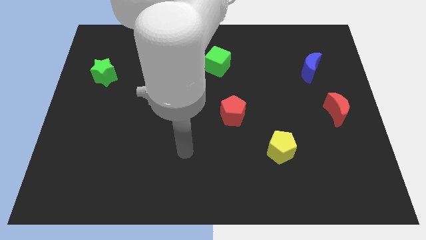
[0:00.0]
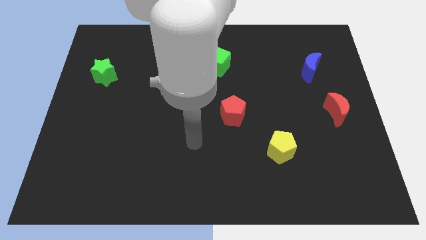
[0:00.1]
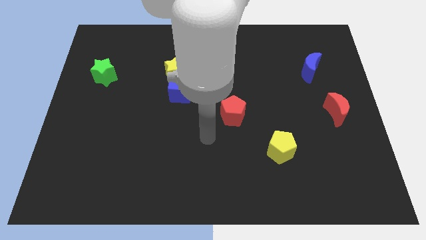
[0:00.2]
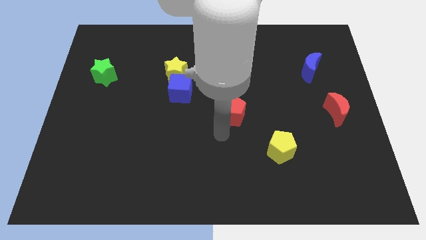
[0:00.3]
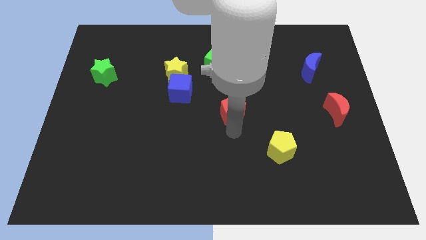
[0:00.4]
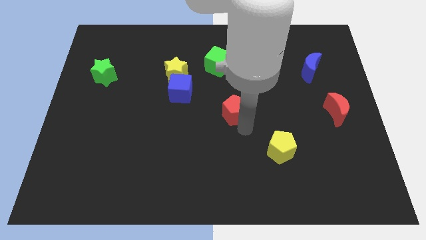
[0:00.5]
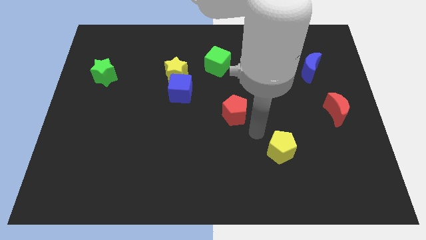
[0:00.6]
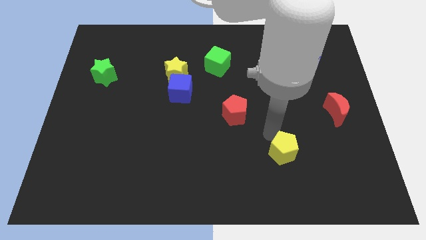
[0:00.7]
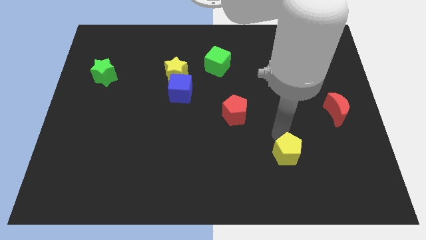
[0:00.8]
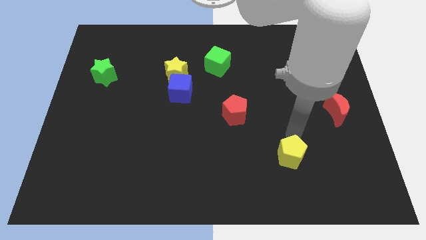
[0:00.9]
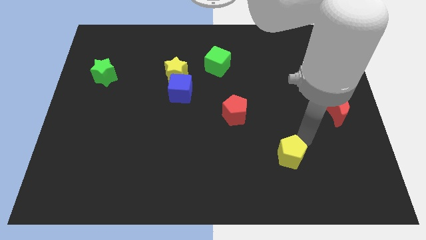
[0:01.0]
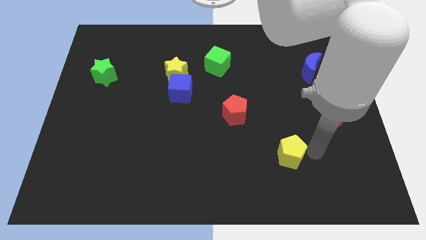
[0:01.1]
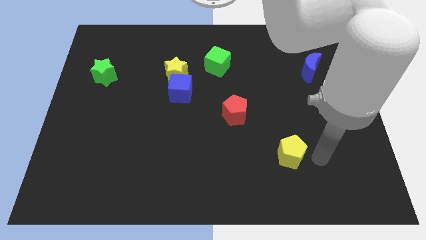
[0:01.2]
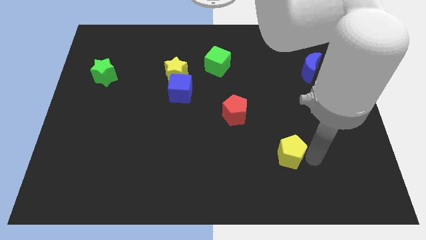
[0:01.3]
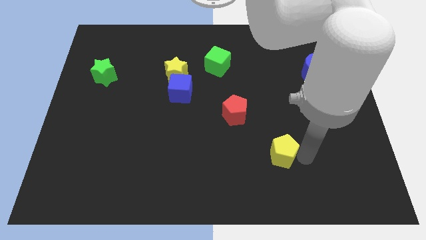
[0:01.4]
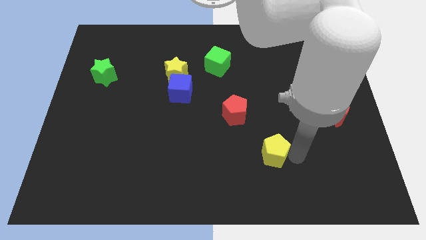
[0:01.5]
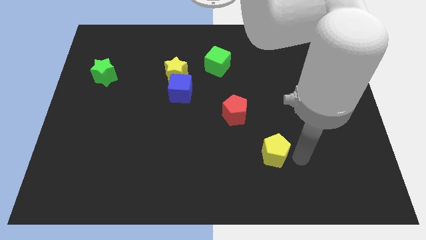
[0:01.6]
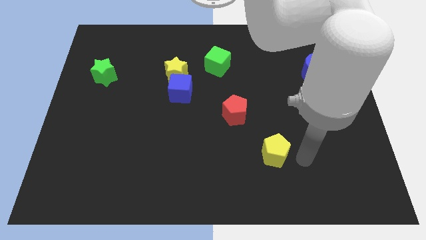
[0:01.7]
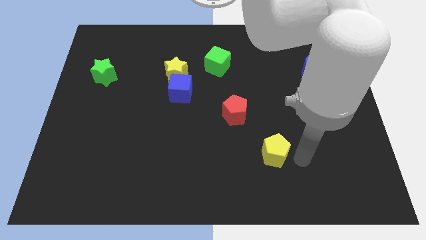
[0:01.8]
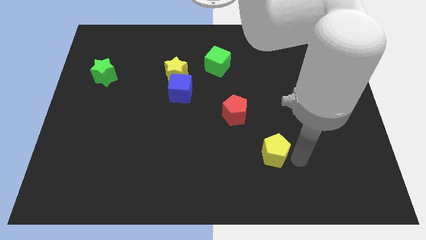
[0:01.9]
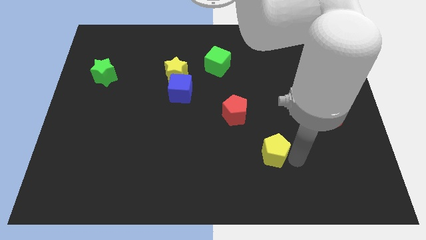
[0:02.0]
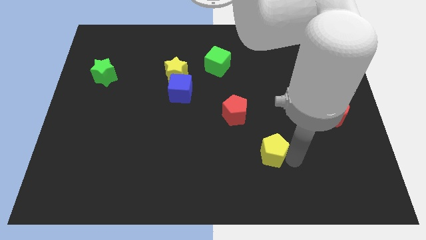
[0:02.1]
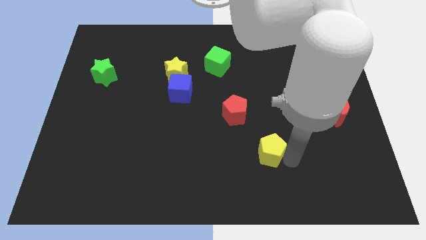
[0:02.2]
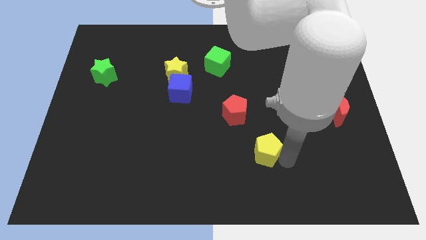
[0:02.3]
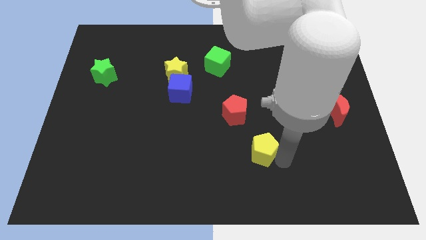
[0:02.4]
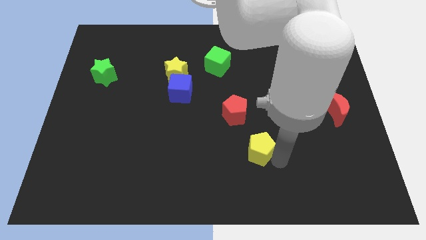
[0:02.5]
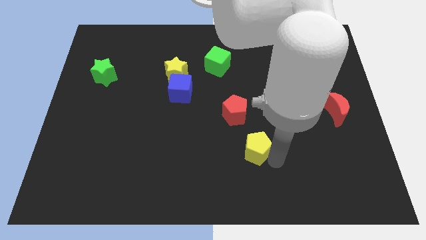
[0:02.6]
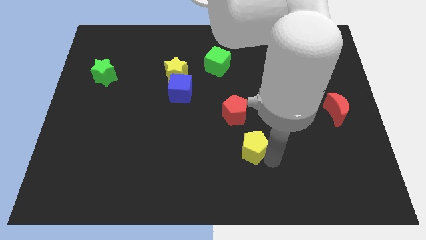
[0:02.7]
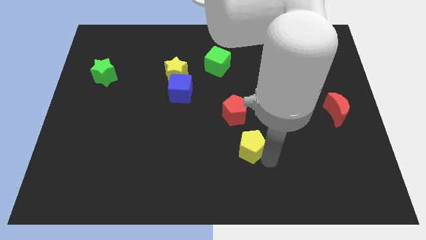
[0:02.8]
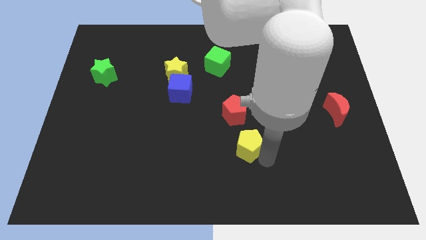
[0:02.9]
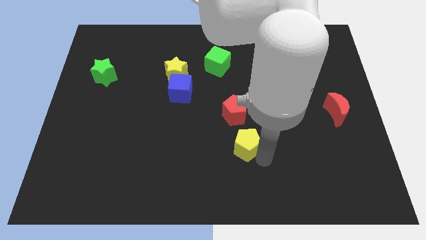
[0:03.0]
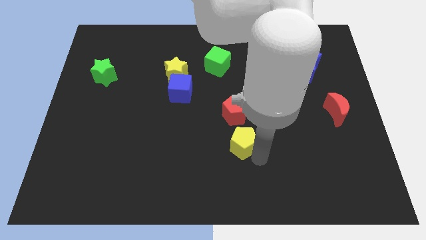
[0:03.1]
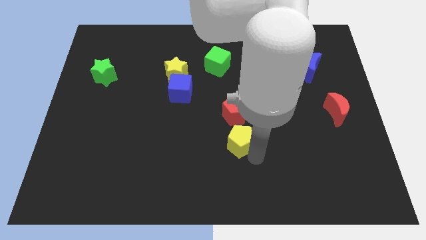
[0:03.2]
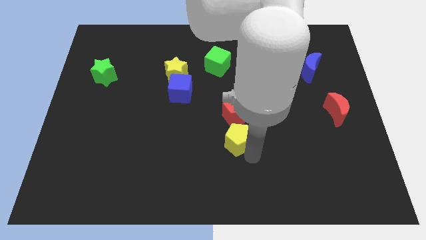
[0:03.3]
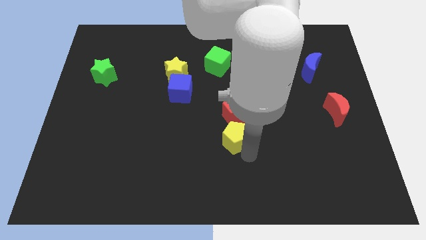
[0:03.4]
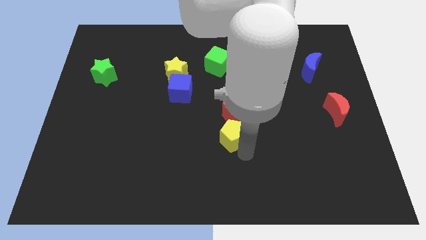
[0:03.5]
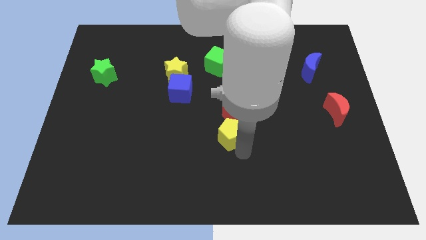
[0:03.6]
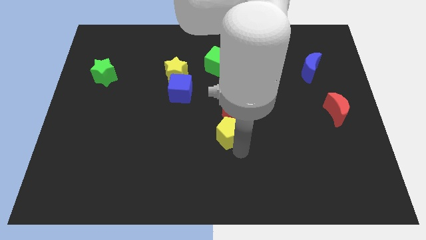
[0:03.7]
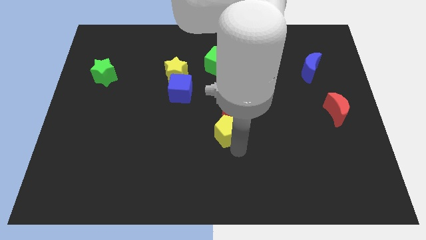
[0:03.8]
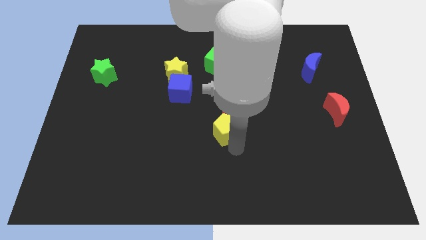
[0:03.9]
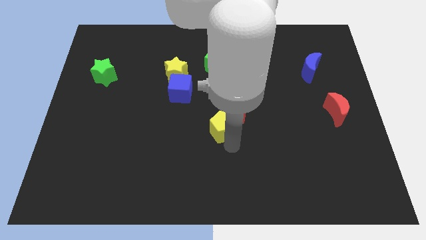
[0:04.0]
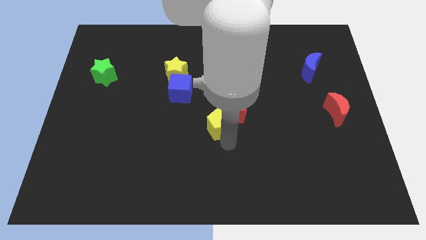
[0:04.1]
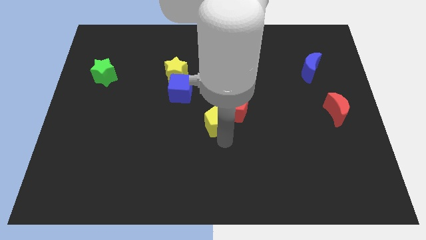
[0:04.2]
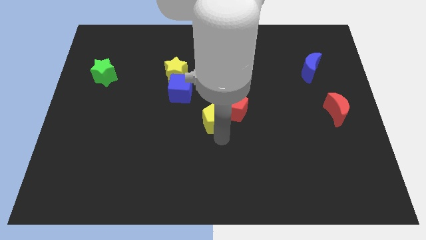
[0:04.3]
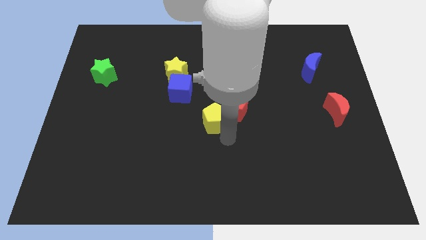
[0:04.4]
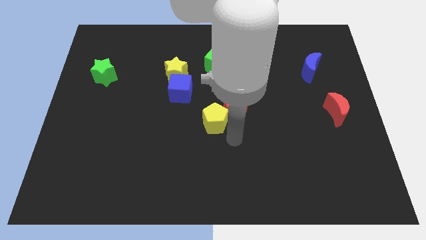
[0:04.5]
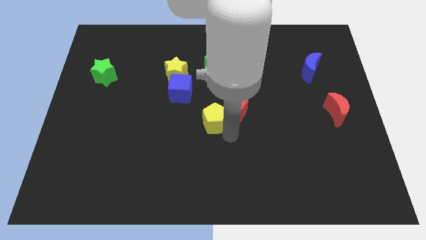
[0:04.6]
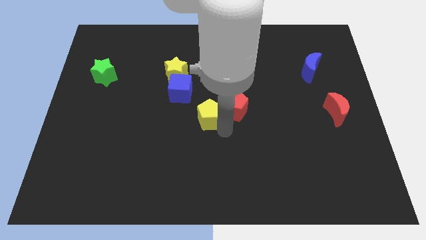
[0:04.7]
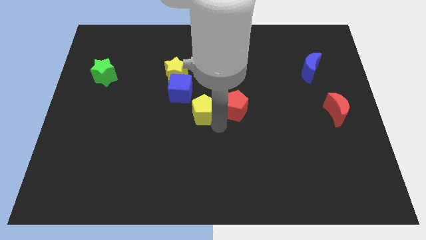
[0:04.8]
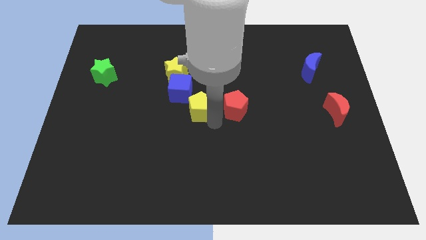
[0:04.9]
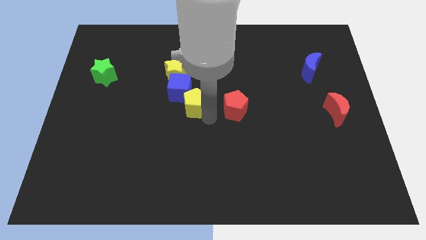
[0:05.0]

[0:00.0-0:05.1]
move the yellow pentagon to the blue cube

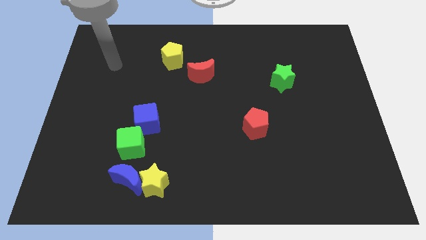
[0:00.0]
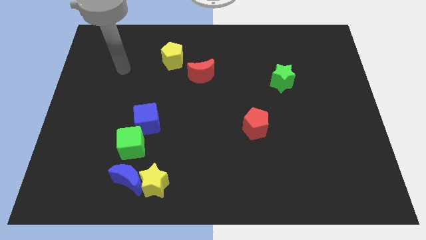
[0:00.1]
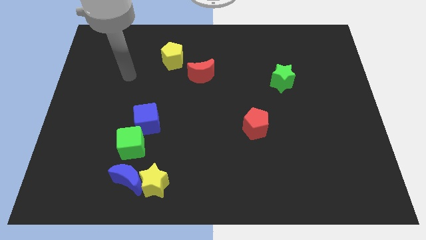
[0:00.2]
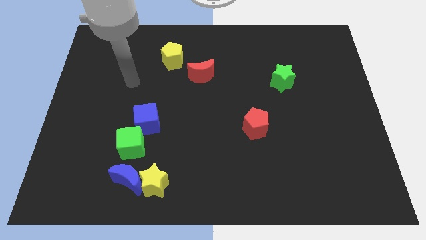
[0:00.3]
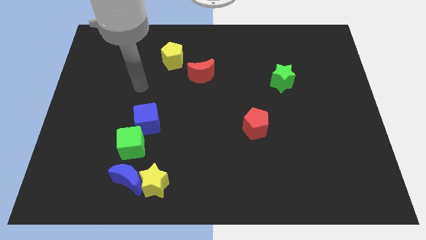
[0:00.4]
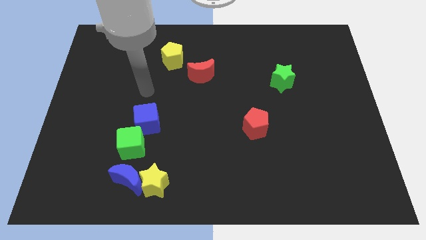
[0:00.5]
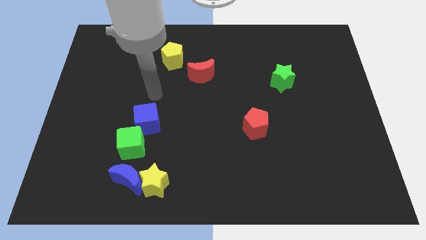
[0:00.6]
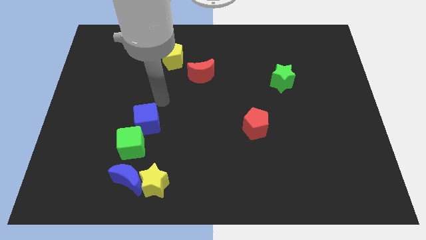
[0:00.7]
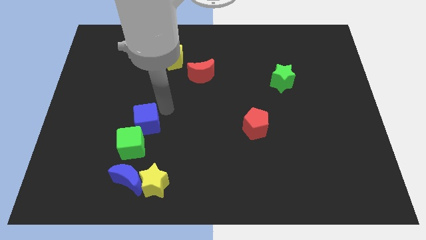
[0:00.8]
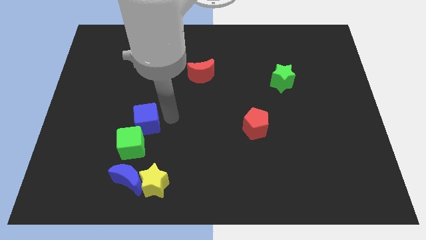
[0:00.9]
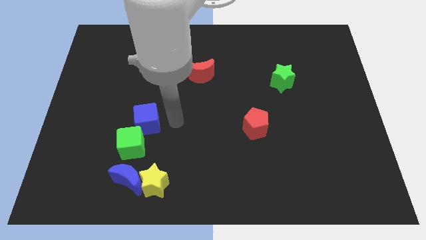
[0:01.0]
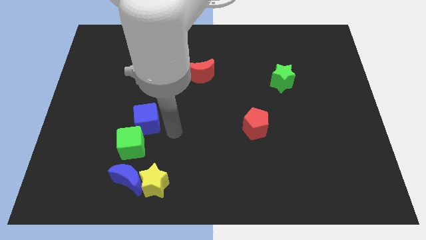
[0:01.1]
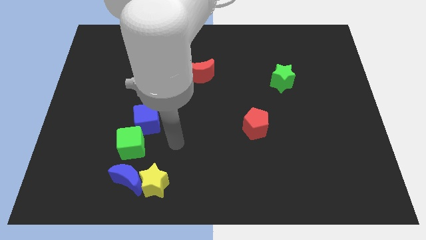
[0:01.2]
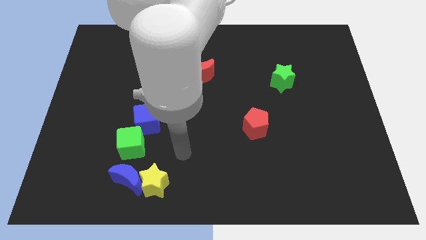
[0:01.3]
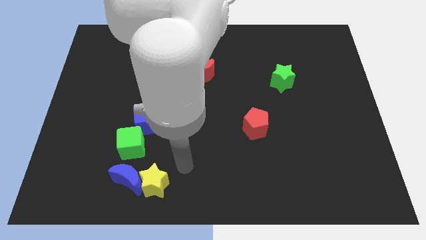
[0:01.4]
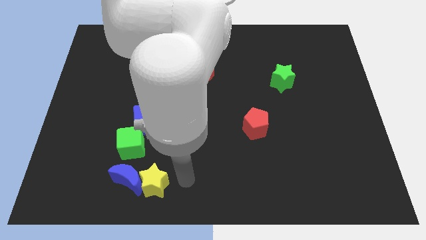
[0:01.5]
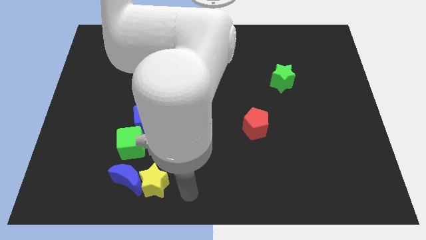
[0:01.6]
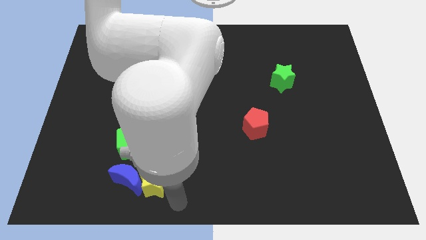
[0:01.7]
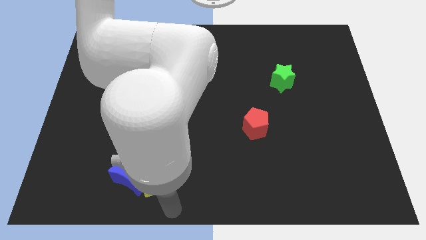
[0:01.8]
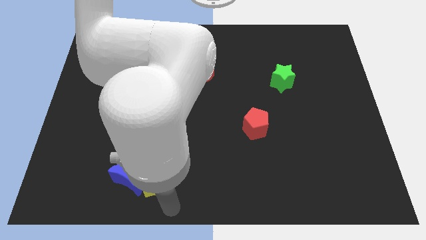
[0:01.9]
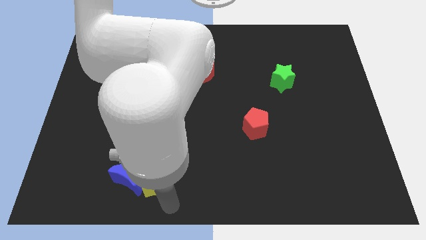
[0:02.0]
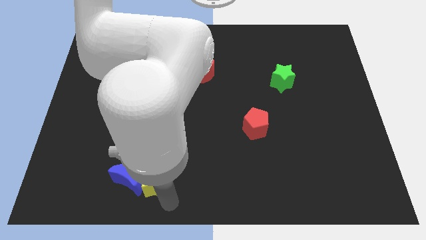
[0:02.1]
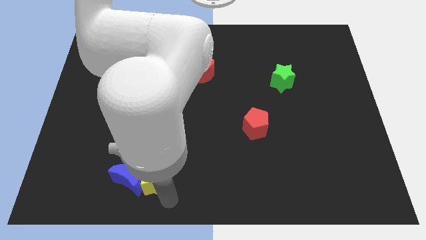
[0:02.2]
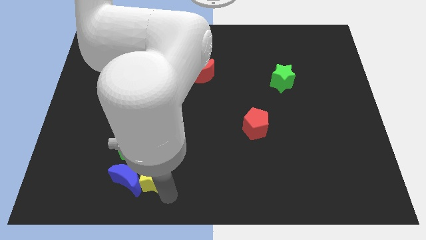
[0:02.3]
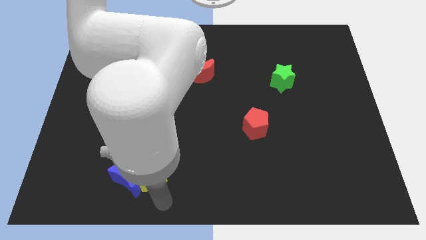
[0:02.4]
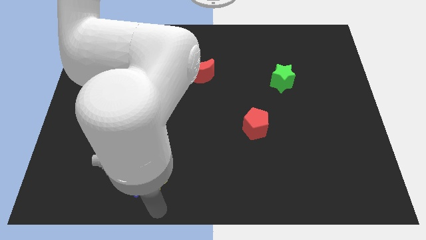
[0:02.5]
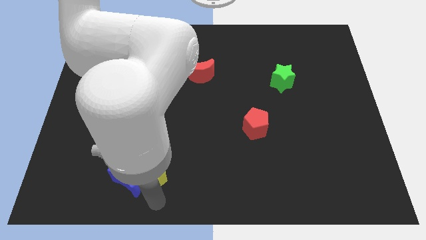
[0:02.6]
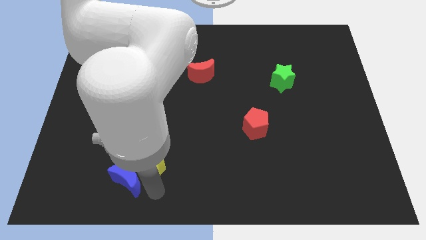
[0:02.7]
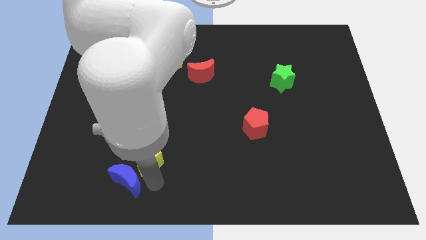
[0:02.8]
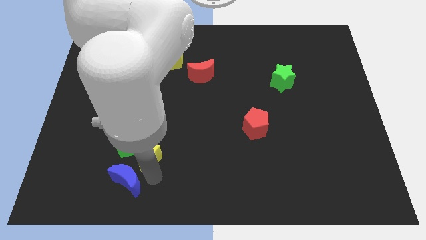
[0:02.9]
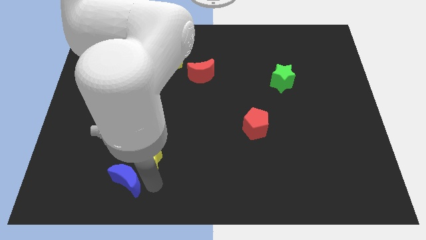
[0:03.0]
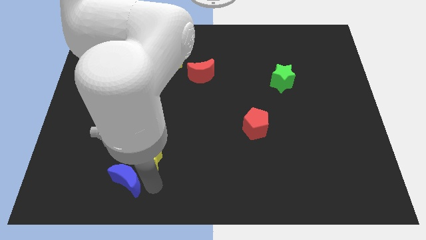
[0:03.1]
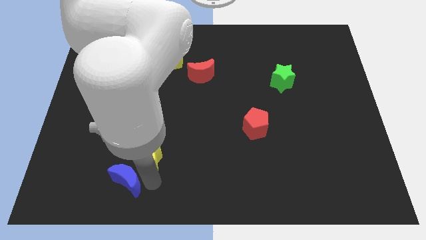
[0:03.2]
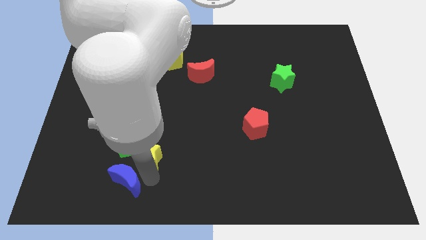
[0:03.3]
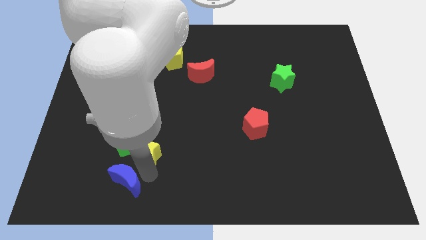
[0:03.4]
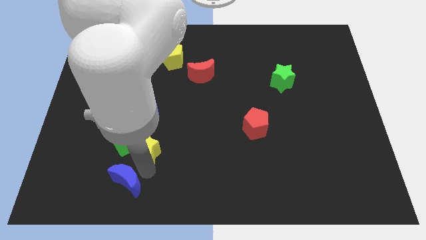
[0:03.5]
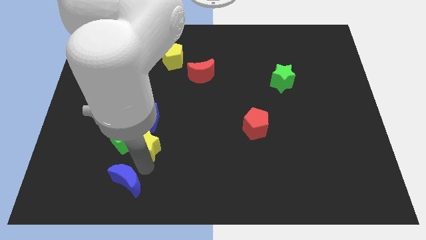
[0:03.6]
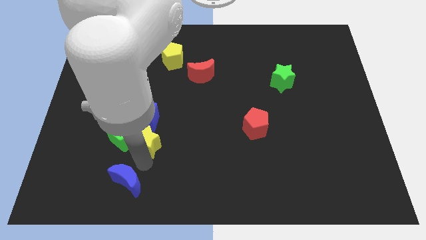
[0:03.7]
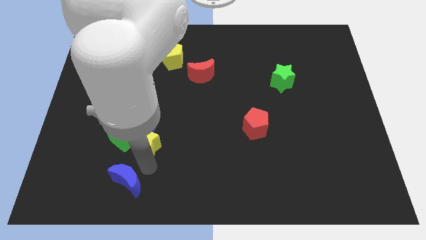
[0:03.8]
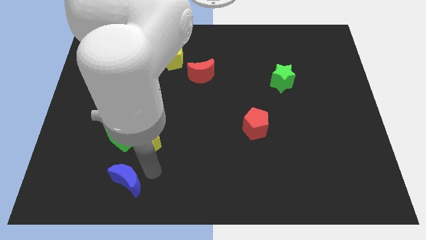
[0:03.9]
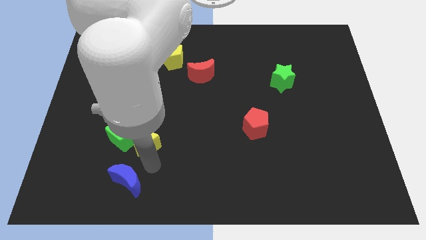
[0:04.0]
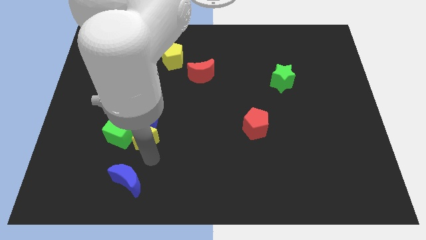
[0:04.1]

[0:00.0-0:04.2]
put the yellow star close to the blue cube
